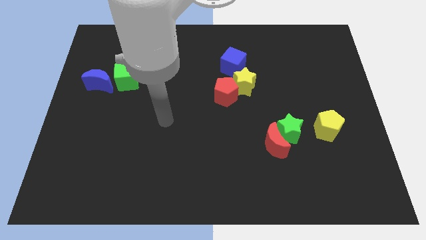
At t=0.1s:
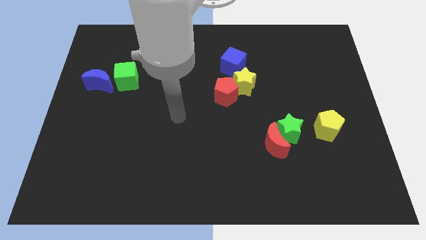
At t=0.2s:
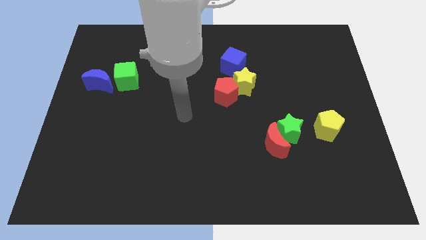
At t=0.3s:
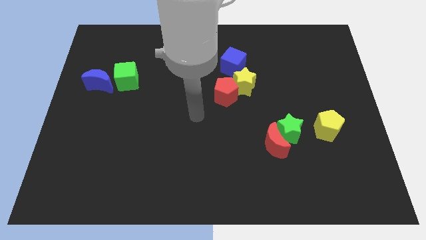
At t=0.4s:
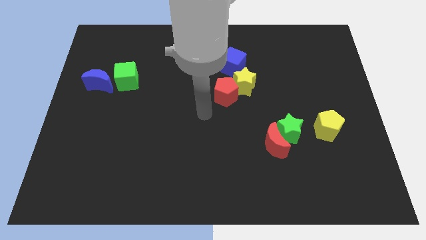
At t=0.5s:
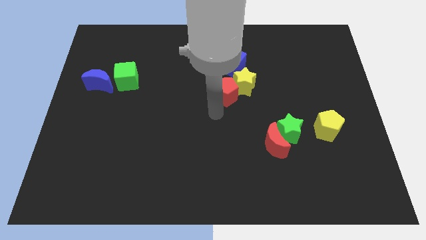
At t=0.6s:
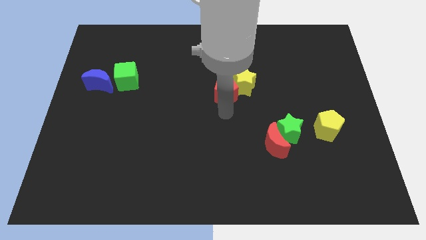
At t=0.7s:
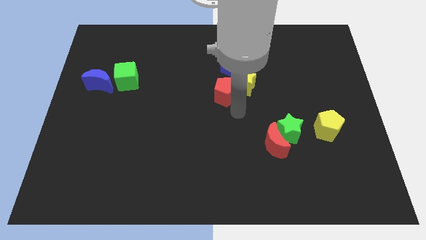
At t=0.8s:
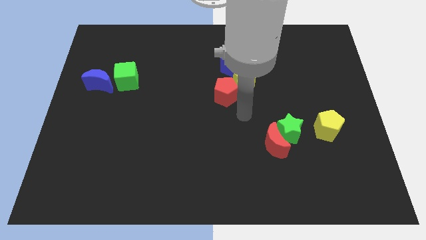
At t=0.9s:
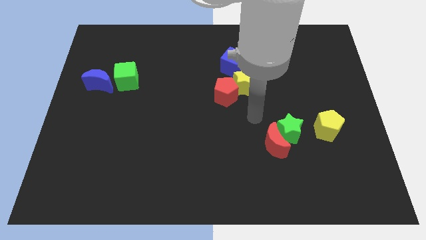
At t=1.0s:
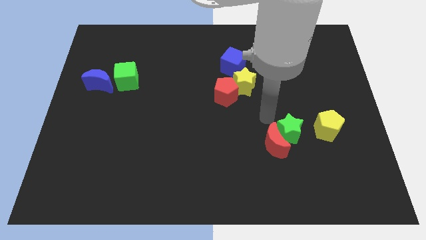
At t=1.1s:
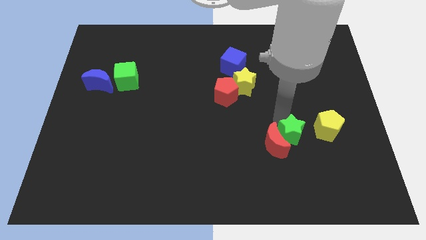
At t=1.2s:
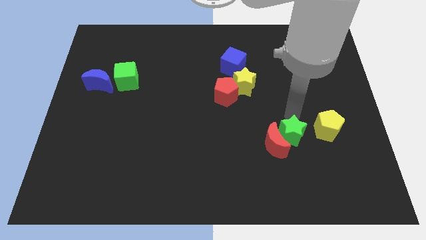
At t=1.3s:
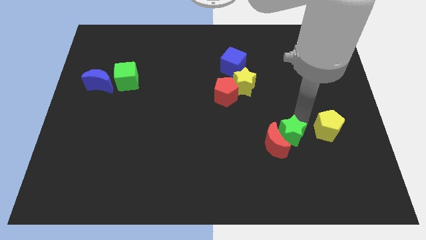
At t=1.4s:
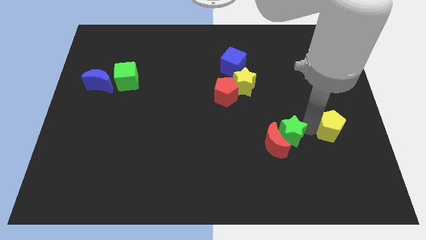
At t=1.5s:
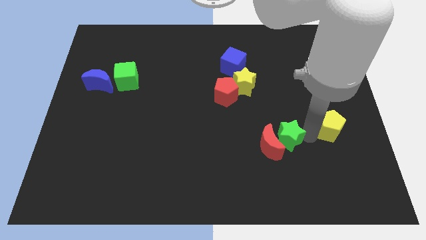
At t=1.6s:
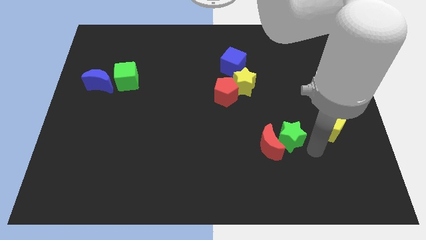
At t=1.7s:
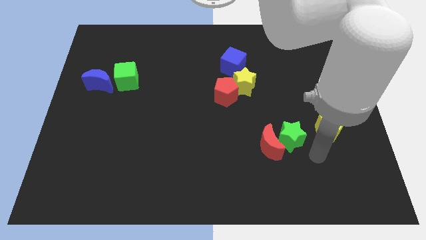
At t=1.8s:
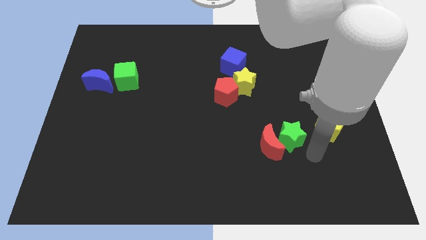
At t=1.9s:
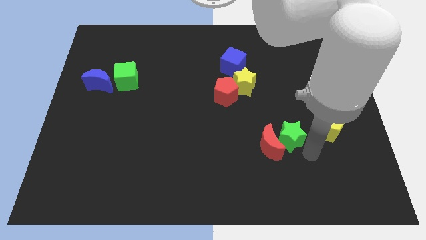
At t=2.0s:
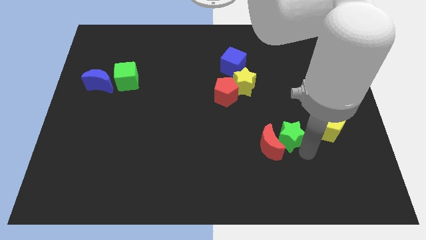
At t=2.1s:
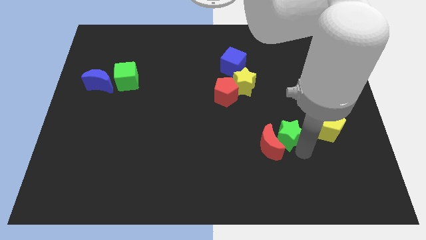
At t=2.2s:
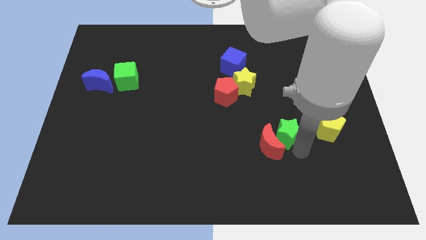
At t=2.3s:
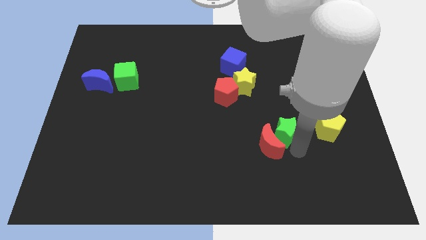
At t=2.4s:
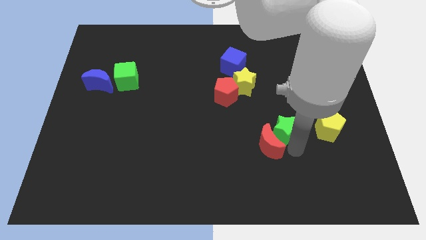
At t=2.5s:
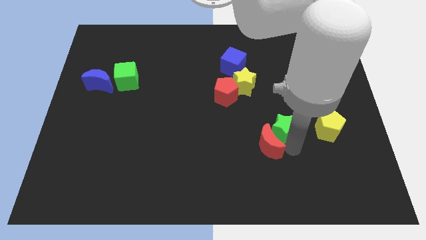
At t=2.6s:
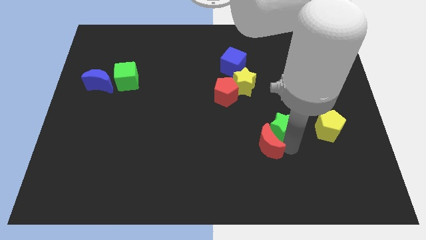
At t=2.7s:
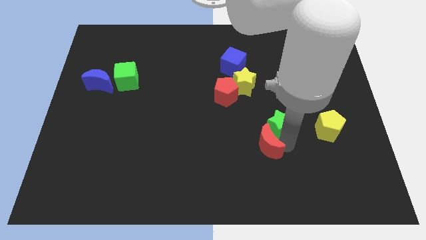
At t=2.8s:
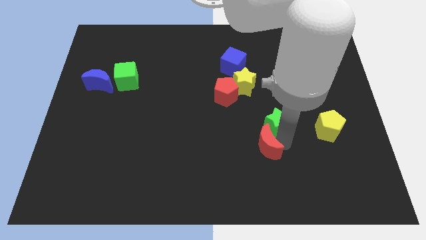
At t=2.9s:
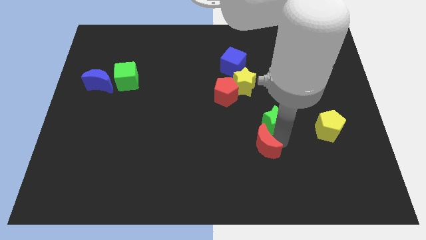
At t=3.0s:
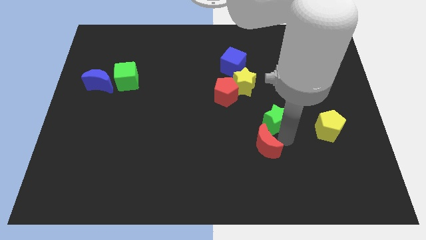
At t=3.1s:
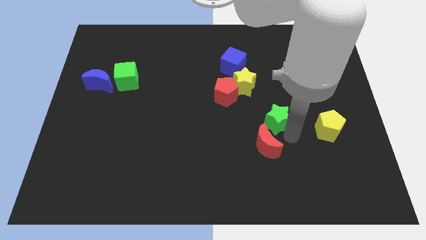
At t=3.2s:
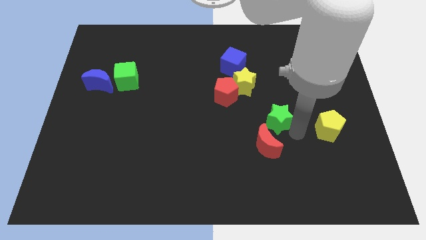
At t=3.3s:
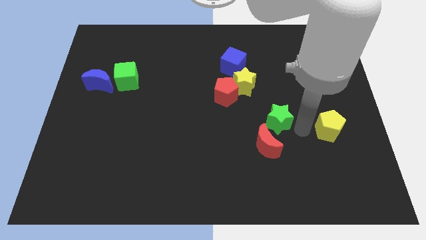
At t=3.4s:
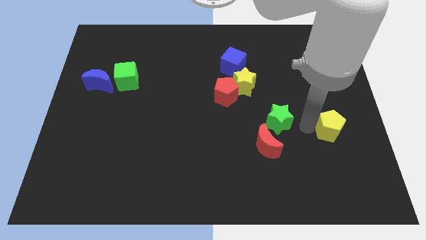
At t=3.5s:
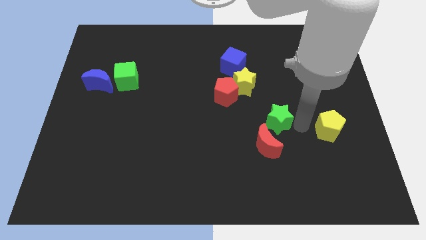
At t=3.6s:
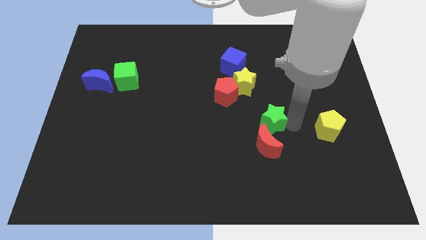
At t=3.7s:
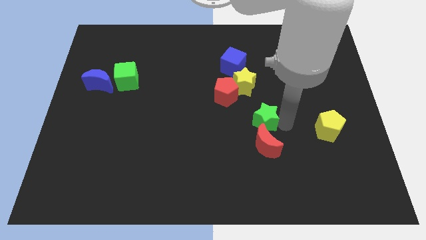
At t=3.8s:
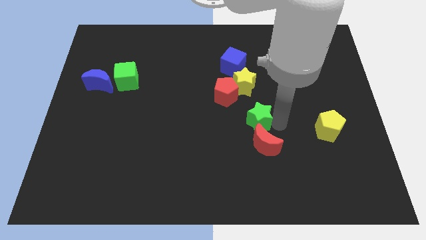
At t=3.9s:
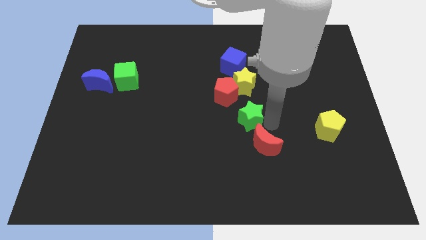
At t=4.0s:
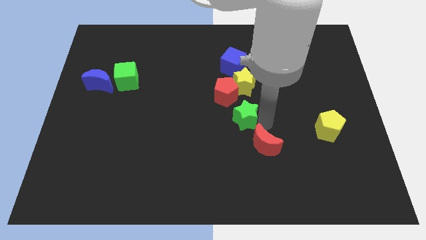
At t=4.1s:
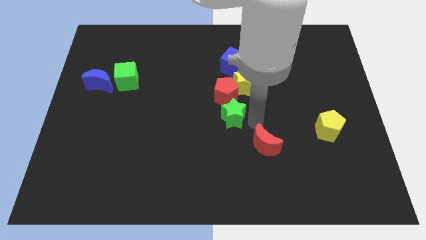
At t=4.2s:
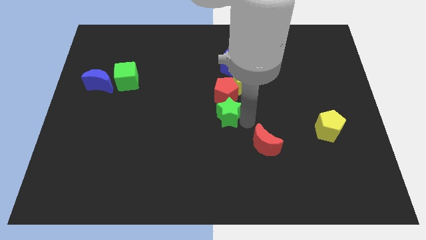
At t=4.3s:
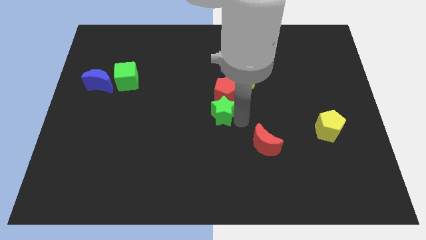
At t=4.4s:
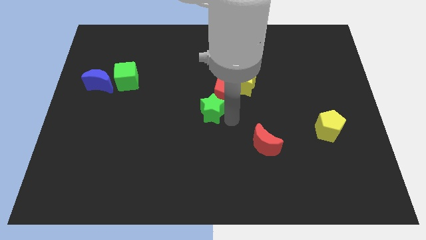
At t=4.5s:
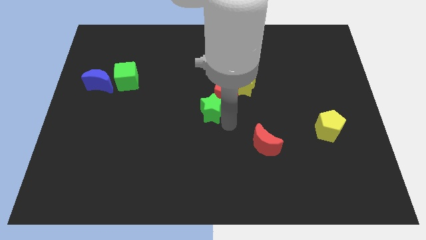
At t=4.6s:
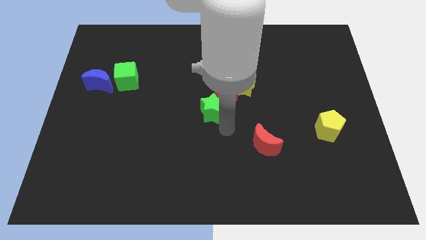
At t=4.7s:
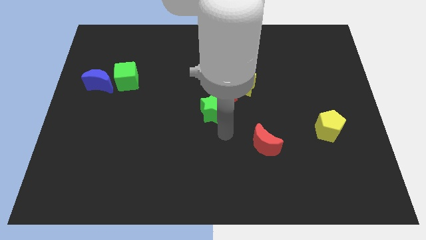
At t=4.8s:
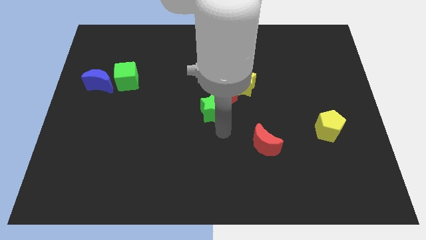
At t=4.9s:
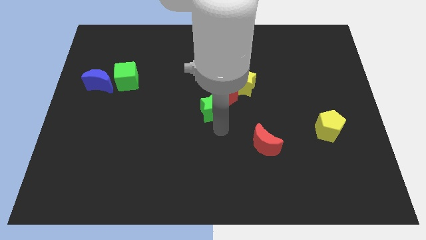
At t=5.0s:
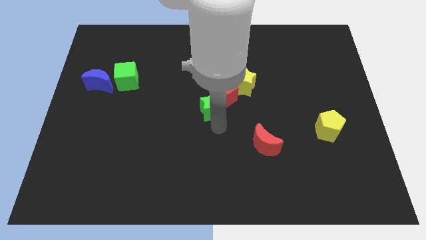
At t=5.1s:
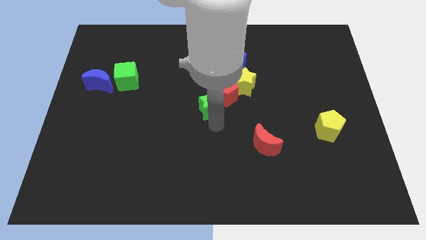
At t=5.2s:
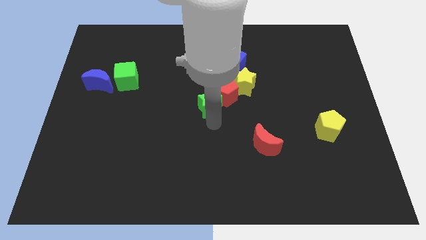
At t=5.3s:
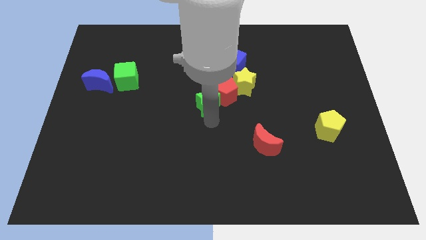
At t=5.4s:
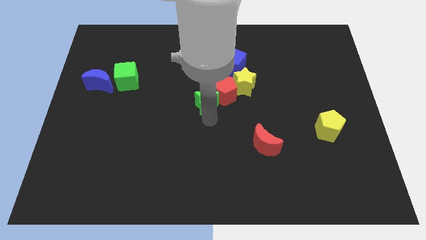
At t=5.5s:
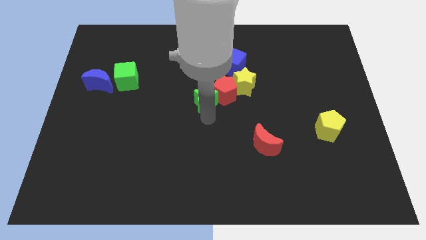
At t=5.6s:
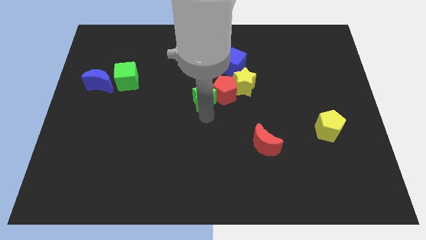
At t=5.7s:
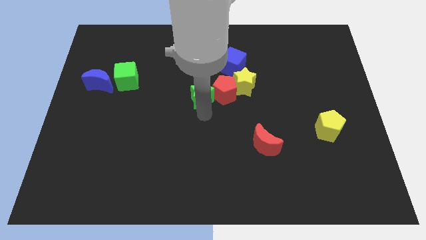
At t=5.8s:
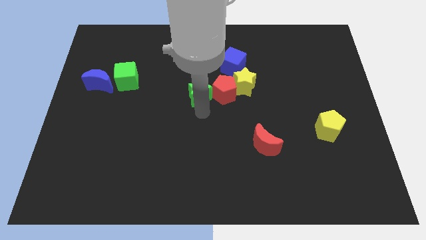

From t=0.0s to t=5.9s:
move the green star upwards and left diagonally

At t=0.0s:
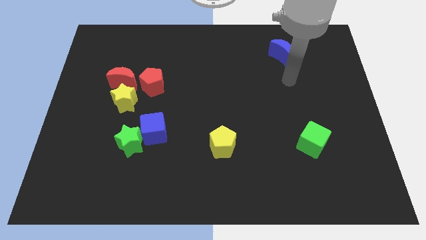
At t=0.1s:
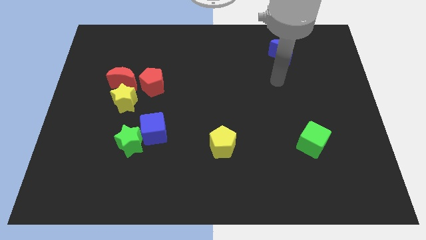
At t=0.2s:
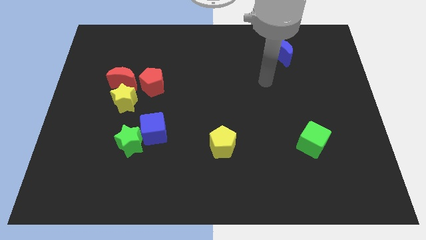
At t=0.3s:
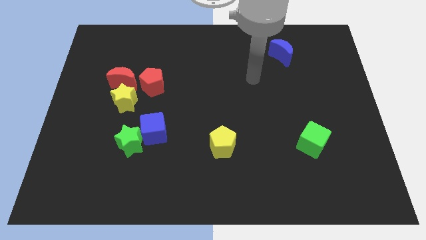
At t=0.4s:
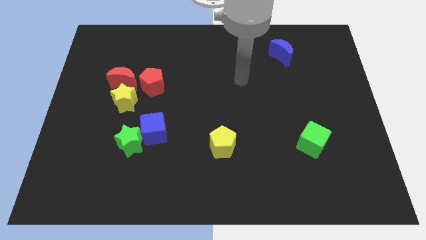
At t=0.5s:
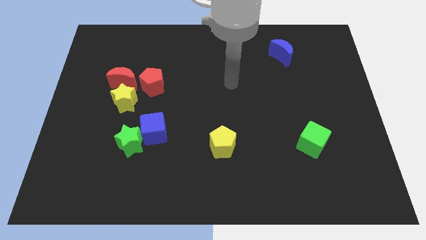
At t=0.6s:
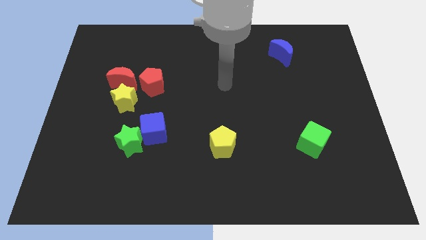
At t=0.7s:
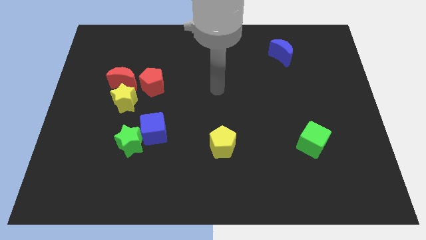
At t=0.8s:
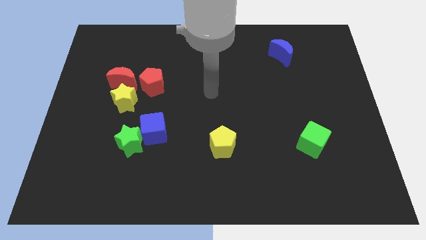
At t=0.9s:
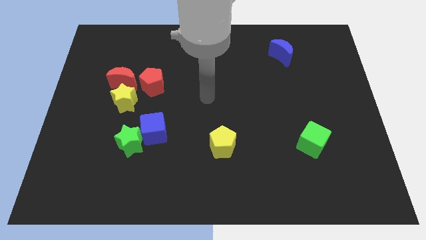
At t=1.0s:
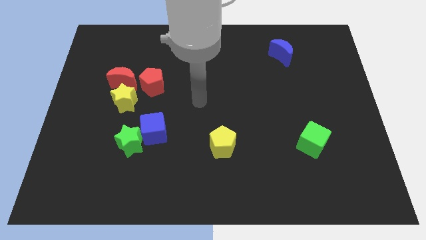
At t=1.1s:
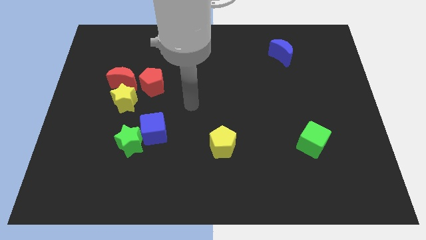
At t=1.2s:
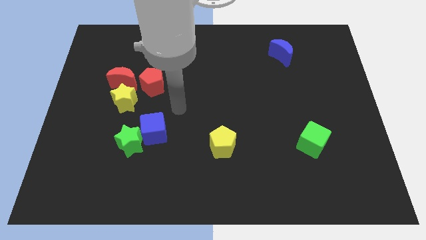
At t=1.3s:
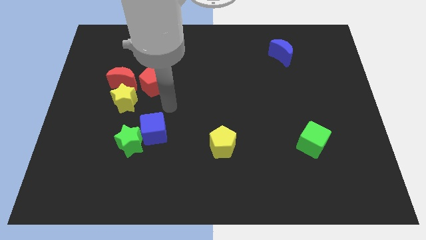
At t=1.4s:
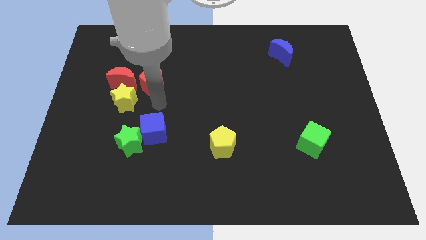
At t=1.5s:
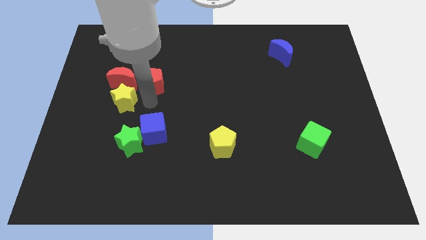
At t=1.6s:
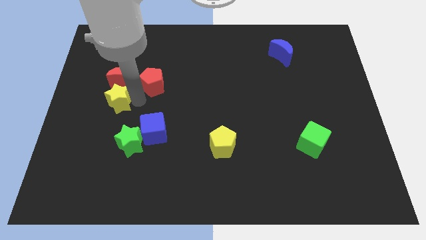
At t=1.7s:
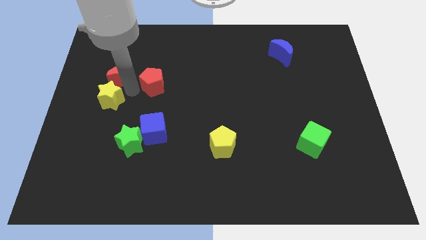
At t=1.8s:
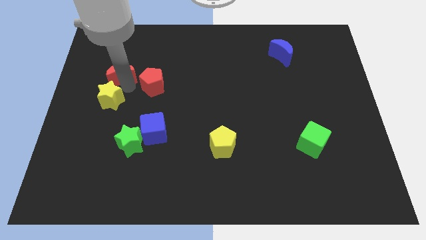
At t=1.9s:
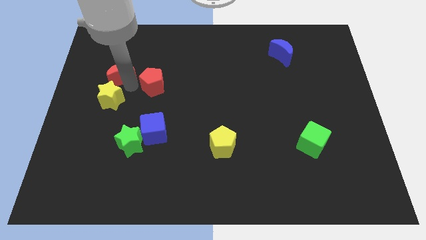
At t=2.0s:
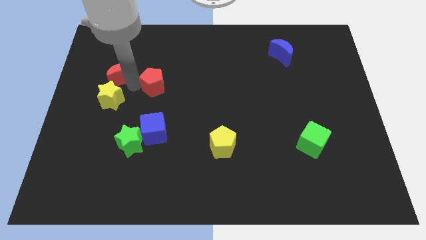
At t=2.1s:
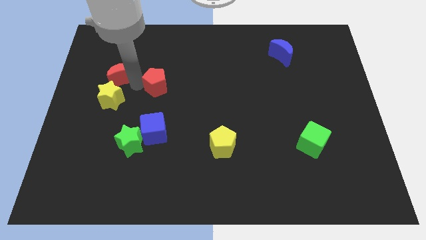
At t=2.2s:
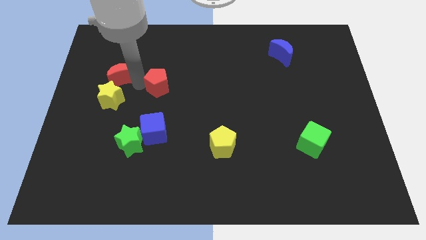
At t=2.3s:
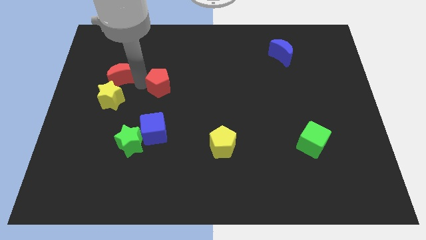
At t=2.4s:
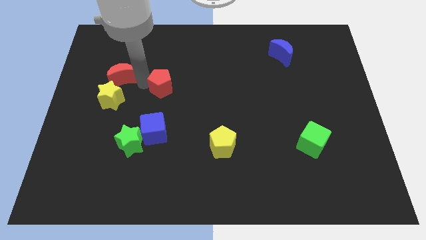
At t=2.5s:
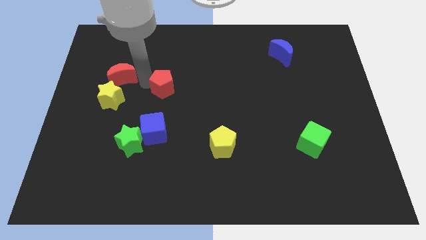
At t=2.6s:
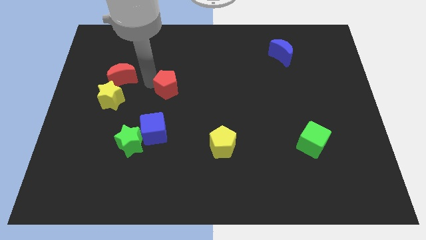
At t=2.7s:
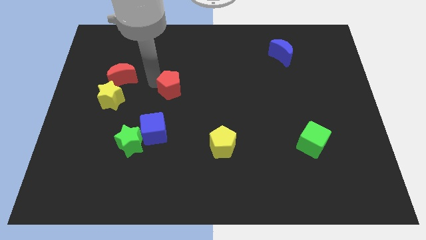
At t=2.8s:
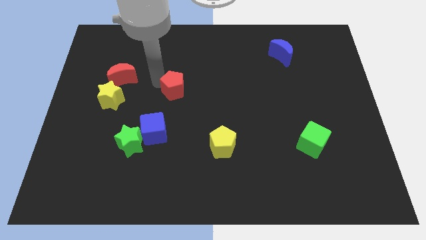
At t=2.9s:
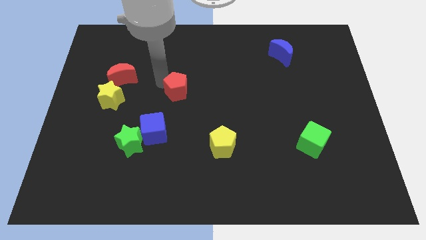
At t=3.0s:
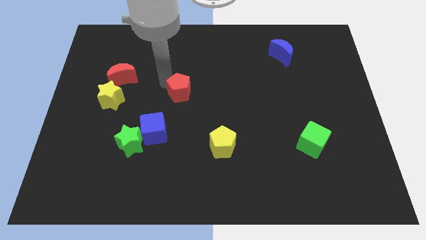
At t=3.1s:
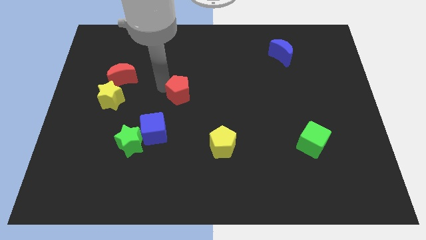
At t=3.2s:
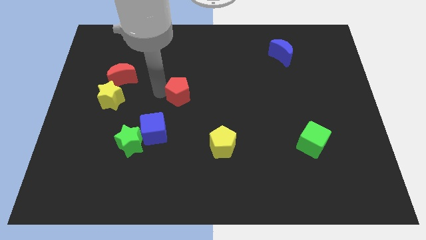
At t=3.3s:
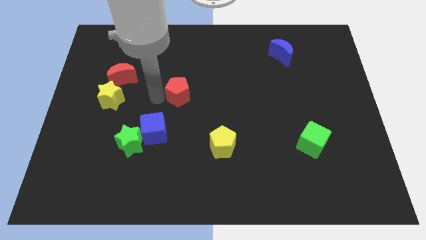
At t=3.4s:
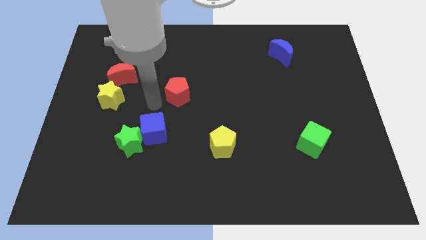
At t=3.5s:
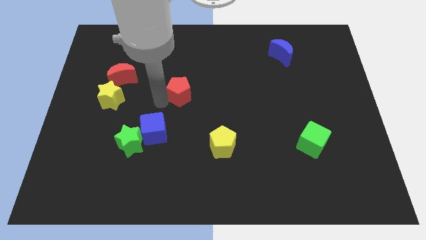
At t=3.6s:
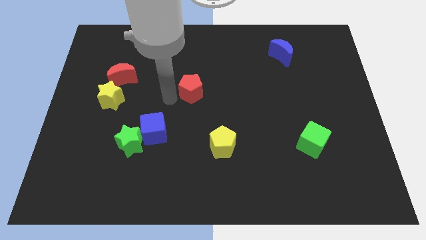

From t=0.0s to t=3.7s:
slide the red pentagon a bit to the right
